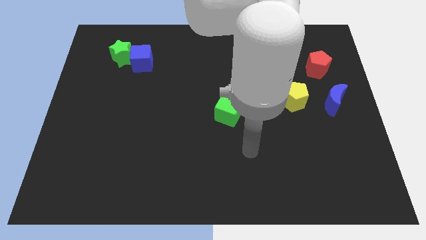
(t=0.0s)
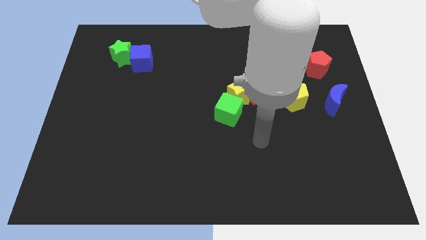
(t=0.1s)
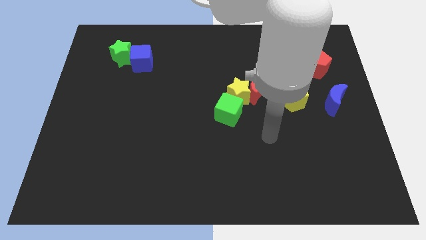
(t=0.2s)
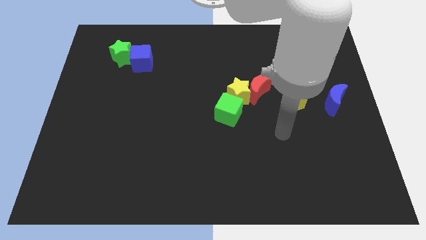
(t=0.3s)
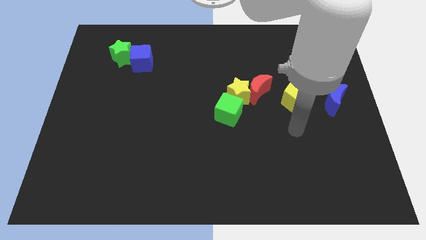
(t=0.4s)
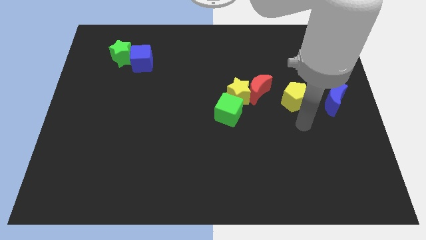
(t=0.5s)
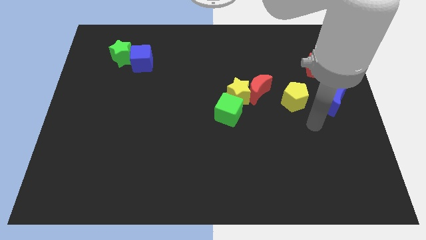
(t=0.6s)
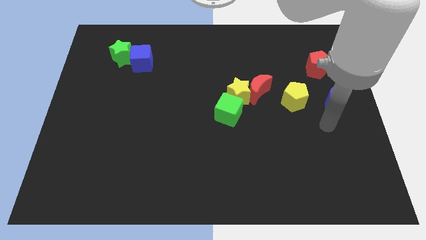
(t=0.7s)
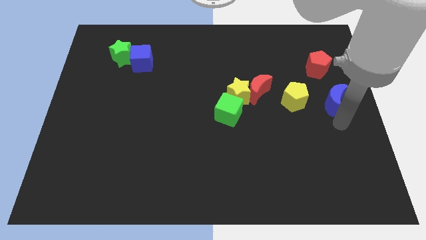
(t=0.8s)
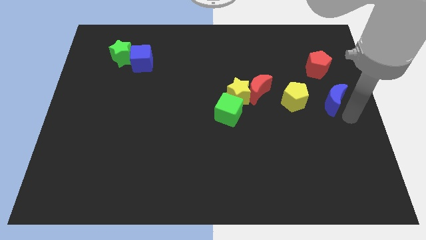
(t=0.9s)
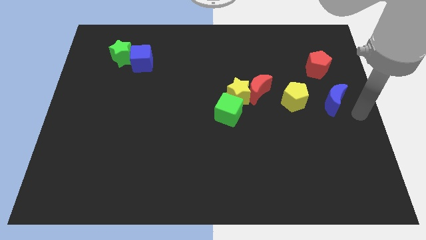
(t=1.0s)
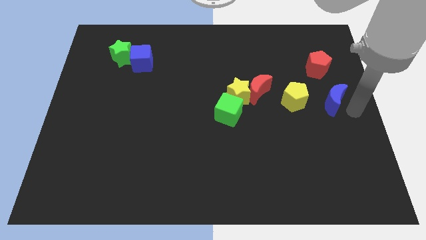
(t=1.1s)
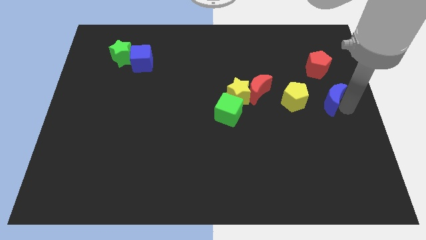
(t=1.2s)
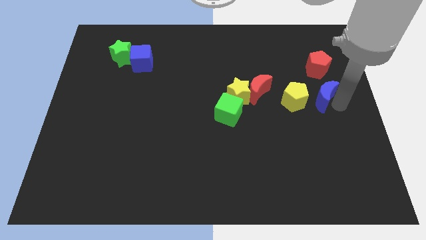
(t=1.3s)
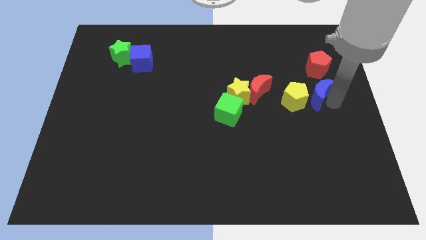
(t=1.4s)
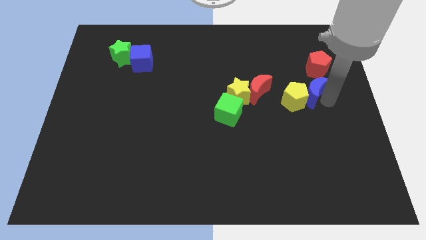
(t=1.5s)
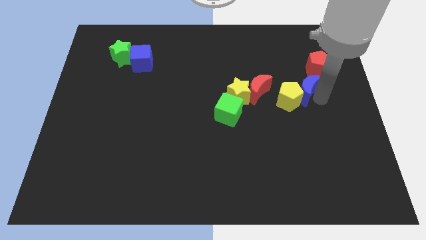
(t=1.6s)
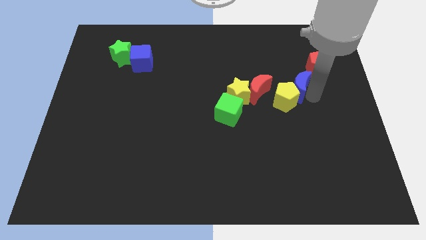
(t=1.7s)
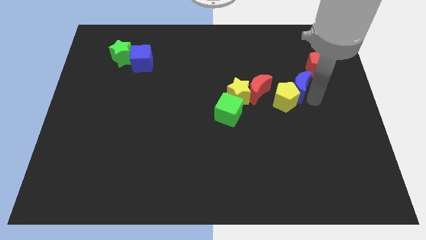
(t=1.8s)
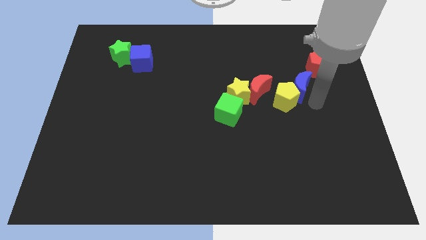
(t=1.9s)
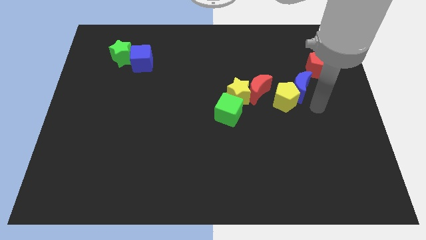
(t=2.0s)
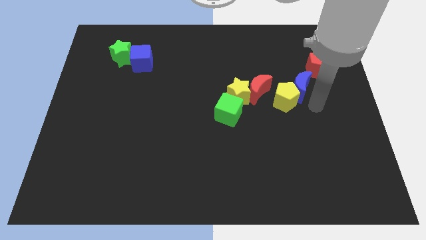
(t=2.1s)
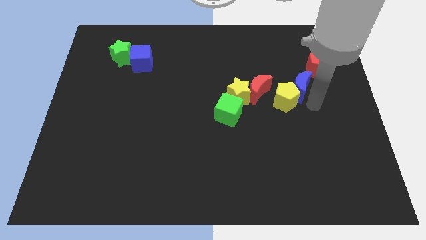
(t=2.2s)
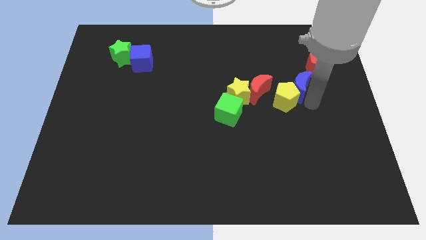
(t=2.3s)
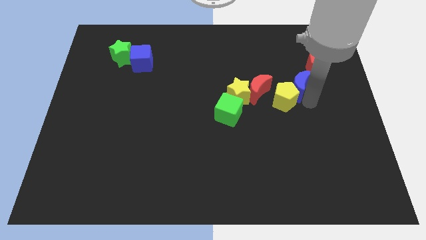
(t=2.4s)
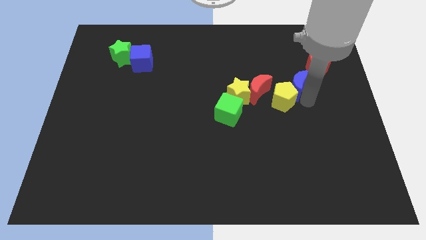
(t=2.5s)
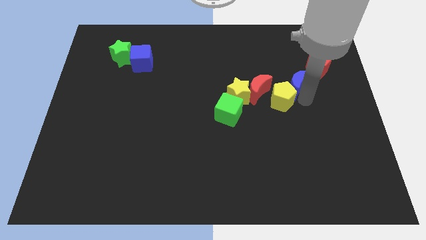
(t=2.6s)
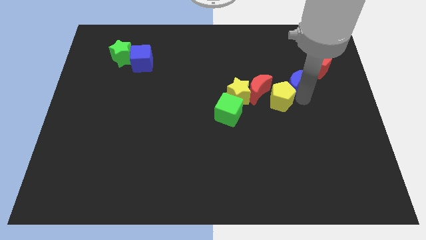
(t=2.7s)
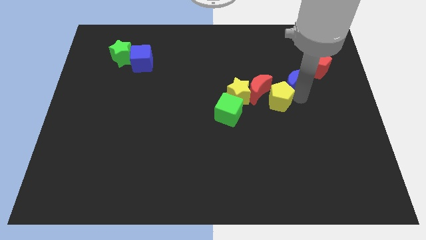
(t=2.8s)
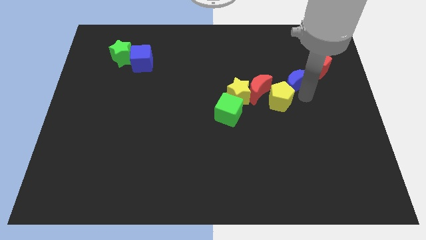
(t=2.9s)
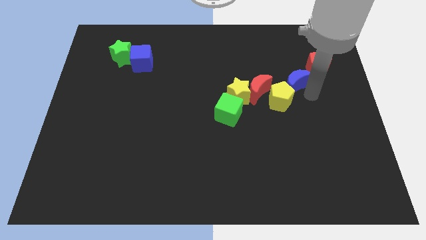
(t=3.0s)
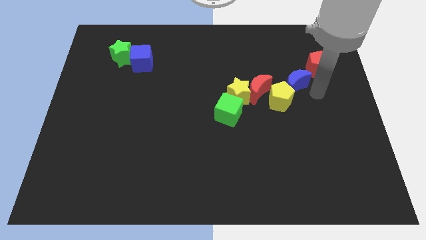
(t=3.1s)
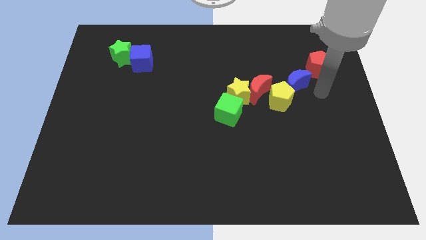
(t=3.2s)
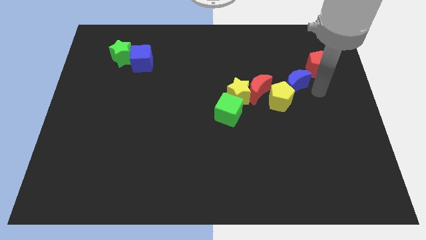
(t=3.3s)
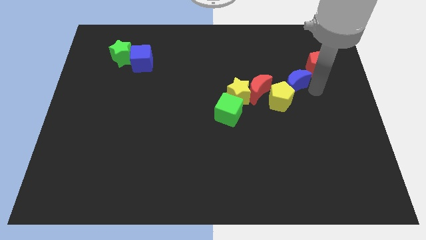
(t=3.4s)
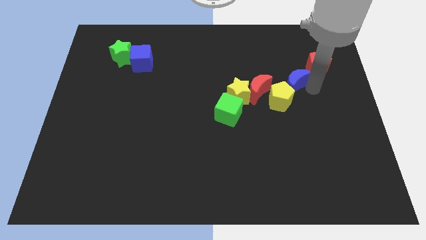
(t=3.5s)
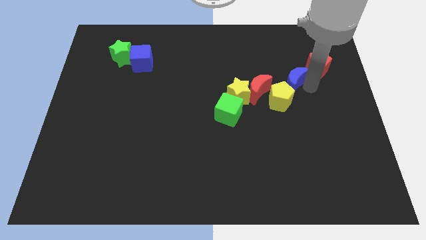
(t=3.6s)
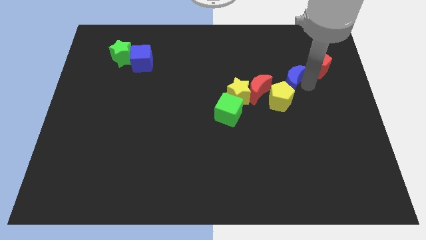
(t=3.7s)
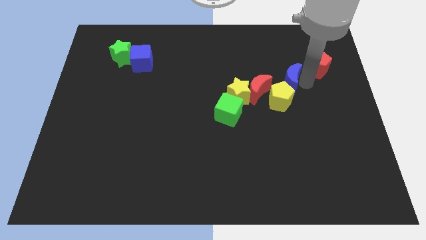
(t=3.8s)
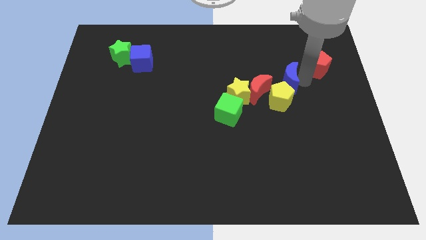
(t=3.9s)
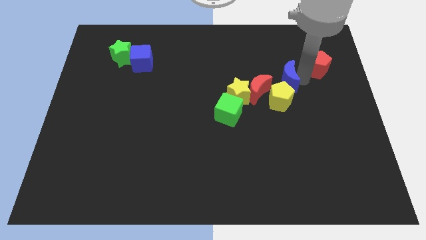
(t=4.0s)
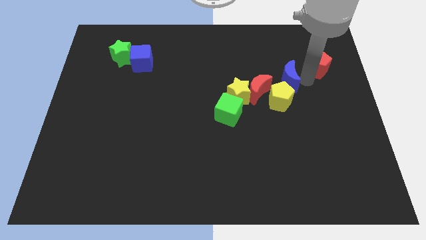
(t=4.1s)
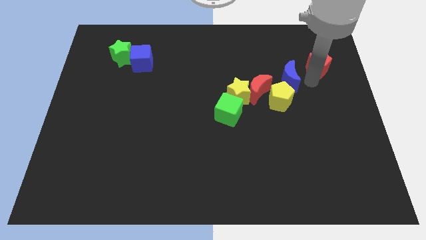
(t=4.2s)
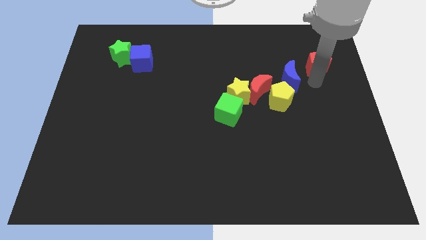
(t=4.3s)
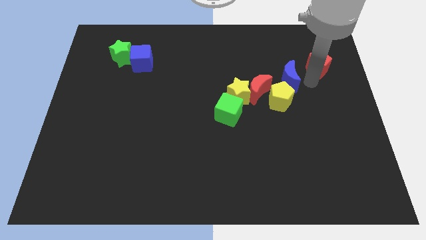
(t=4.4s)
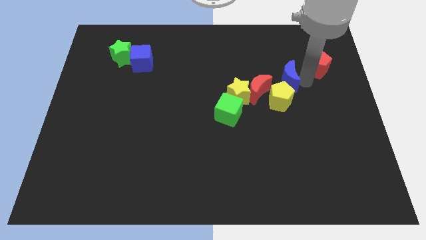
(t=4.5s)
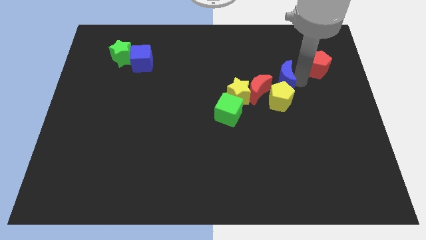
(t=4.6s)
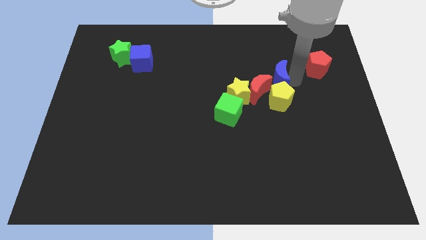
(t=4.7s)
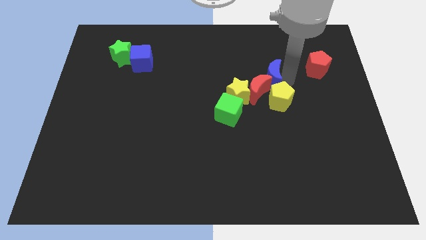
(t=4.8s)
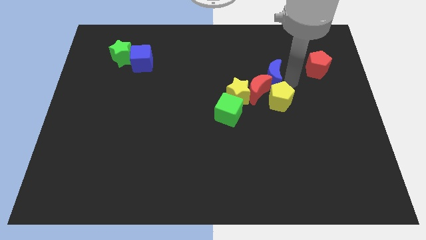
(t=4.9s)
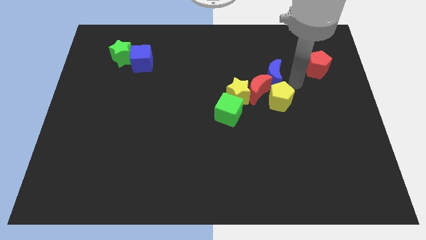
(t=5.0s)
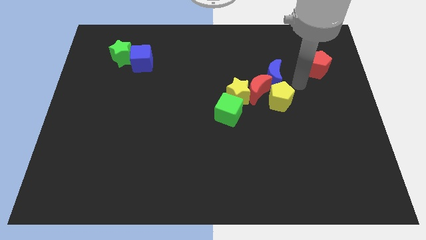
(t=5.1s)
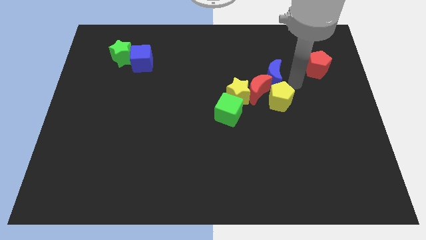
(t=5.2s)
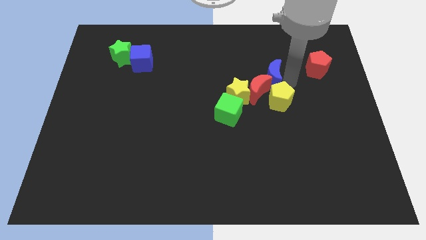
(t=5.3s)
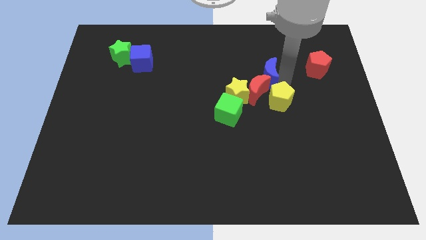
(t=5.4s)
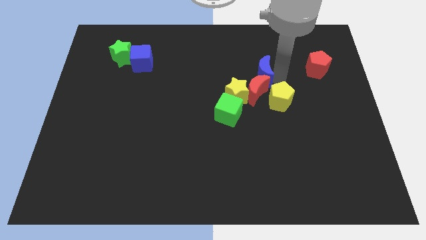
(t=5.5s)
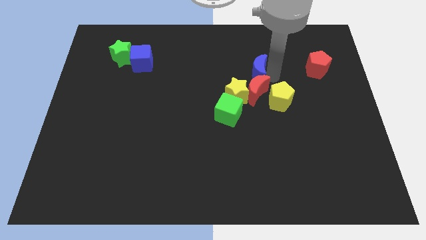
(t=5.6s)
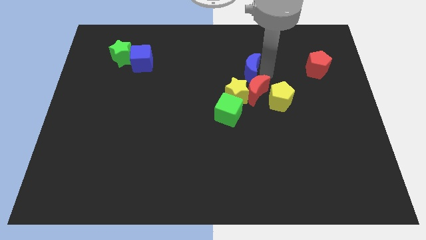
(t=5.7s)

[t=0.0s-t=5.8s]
push the blue moon to the top left side of the red moon
